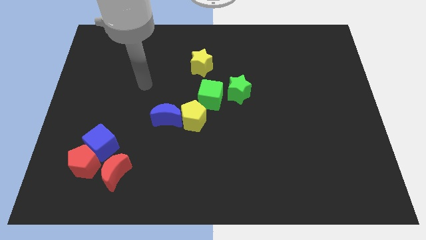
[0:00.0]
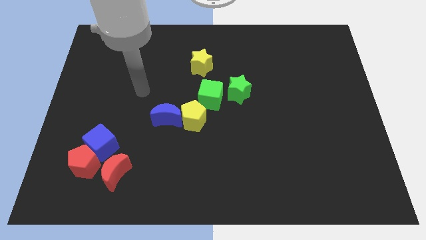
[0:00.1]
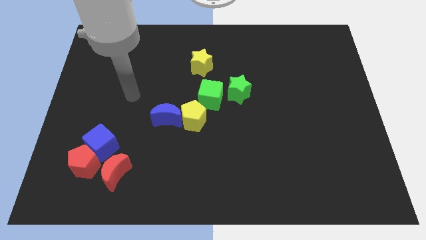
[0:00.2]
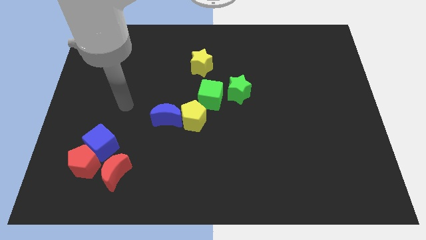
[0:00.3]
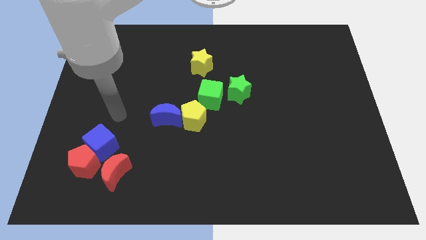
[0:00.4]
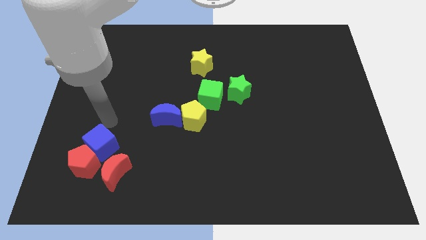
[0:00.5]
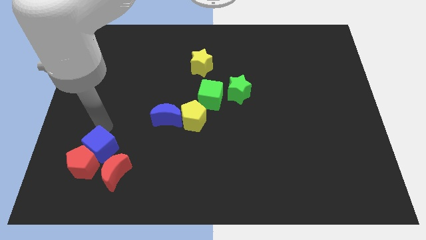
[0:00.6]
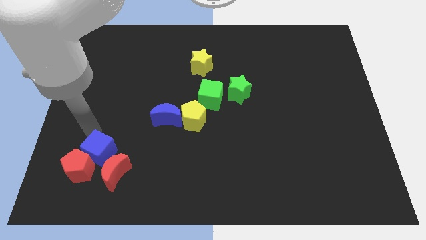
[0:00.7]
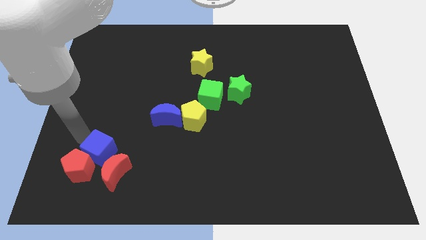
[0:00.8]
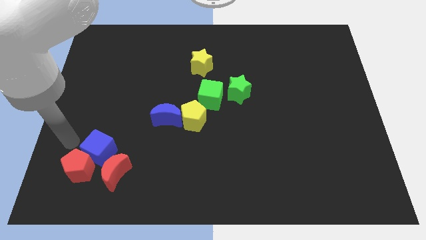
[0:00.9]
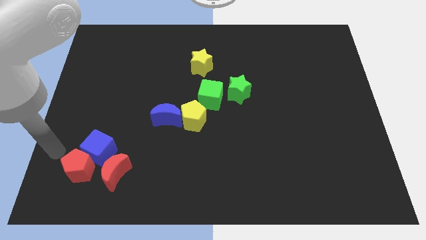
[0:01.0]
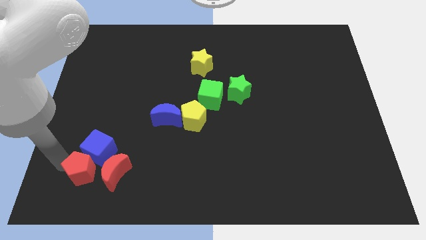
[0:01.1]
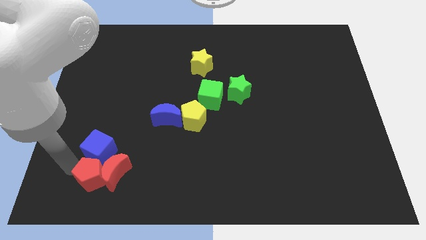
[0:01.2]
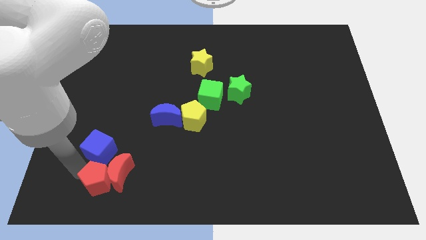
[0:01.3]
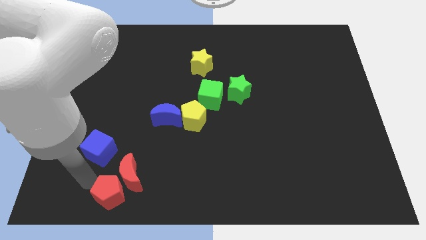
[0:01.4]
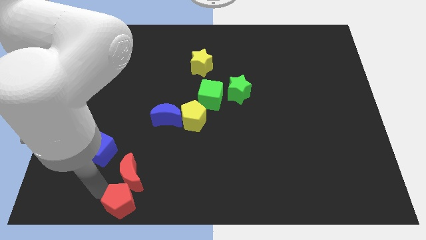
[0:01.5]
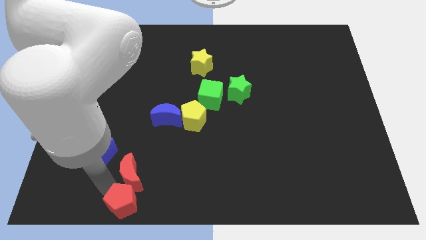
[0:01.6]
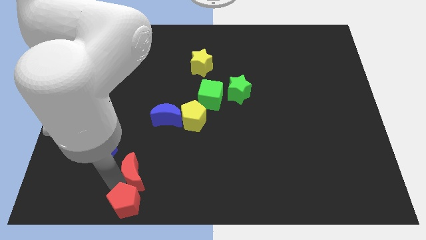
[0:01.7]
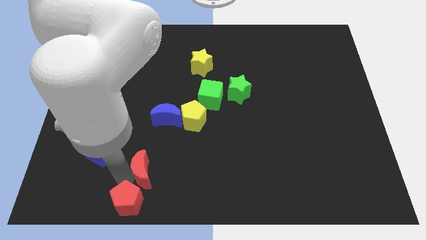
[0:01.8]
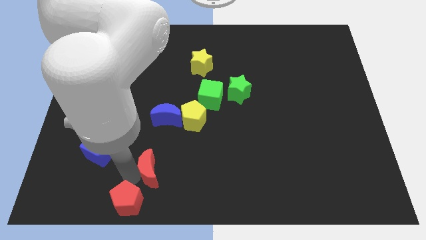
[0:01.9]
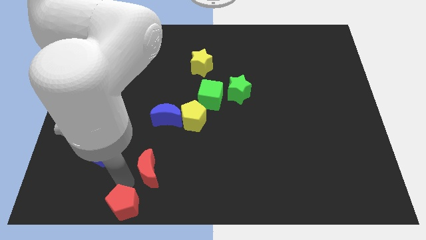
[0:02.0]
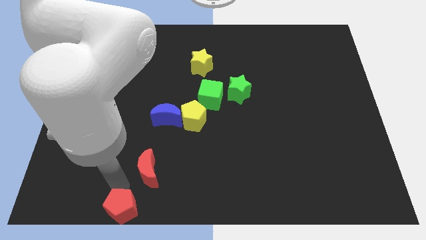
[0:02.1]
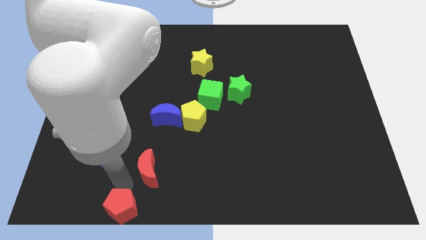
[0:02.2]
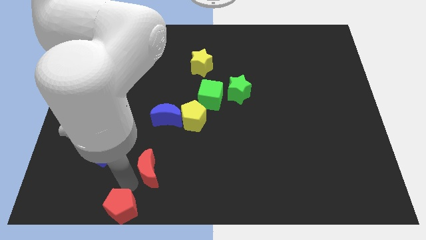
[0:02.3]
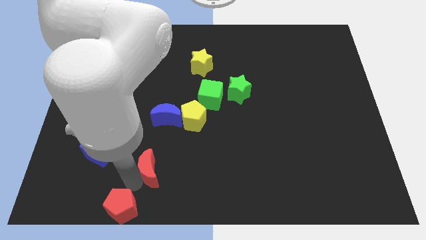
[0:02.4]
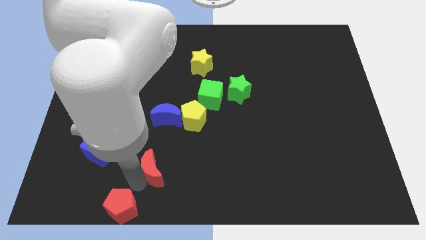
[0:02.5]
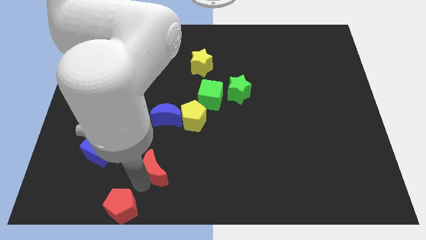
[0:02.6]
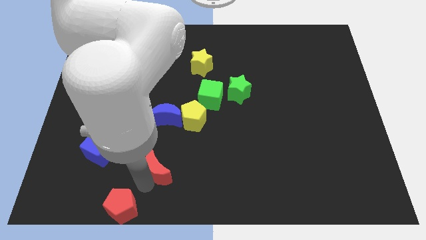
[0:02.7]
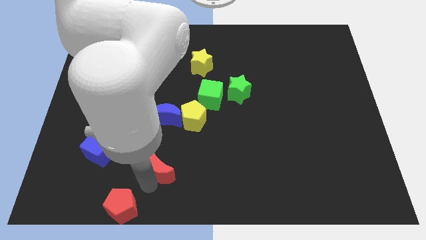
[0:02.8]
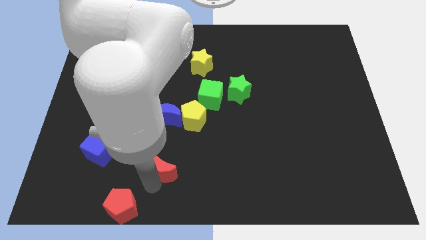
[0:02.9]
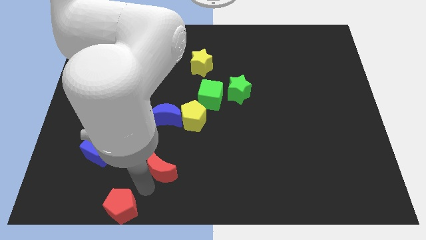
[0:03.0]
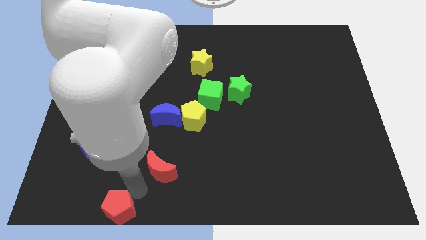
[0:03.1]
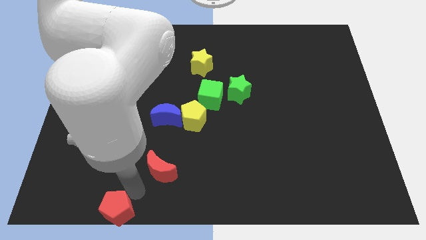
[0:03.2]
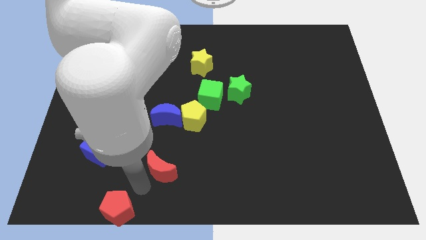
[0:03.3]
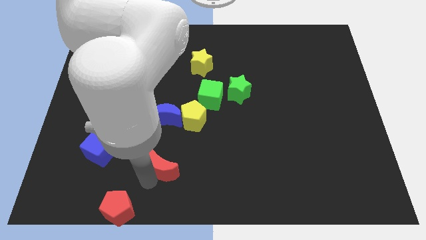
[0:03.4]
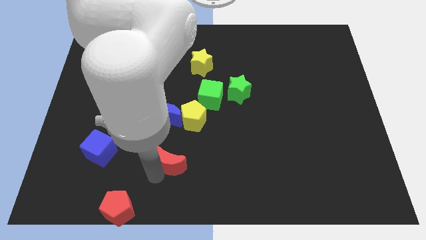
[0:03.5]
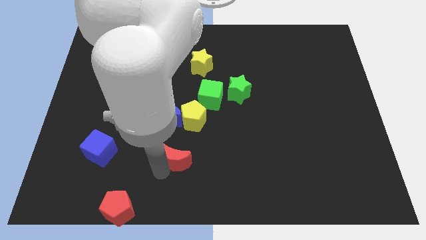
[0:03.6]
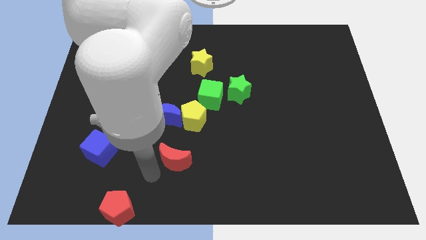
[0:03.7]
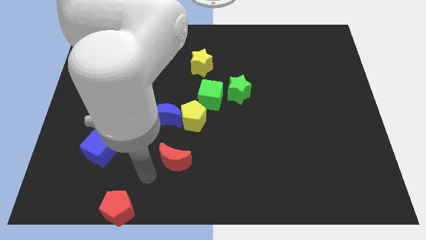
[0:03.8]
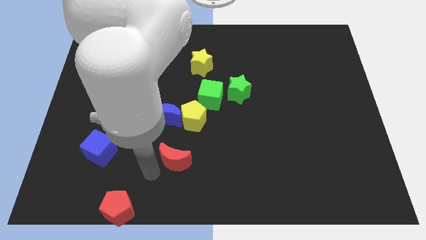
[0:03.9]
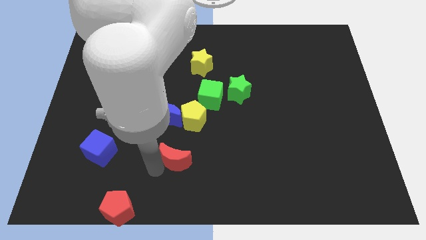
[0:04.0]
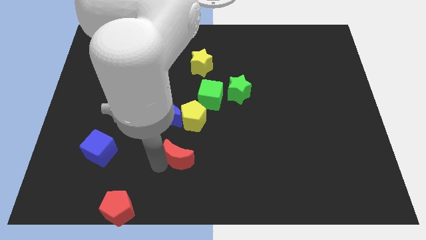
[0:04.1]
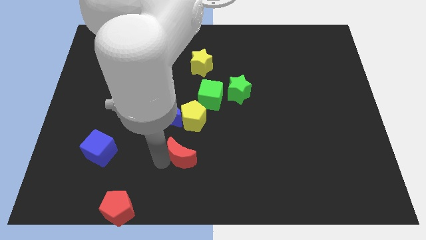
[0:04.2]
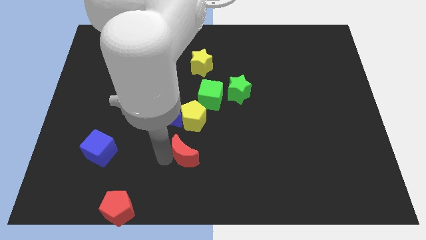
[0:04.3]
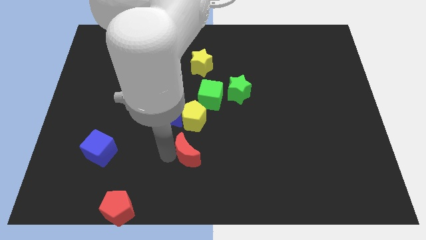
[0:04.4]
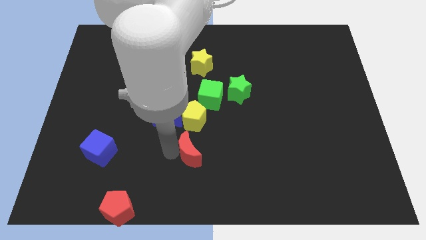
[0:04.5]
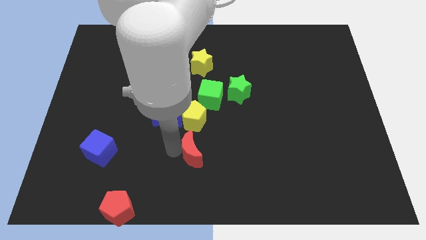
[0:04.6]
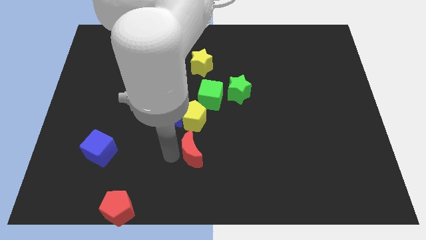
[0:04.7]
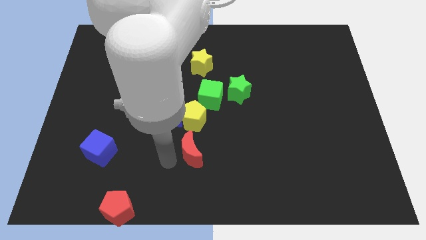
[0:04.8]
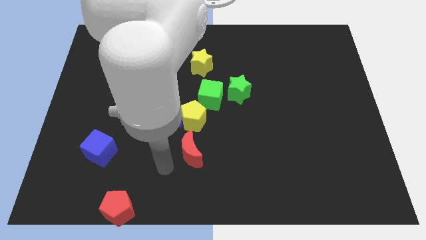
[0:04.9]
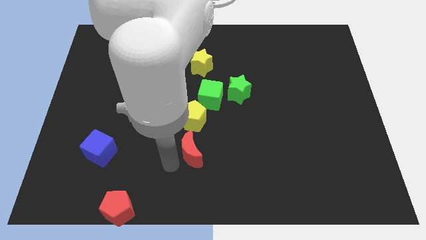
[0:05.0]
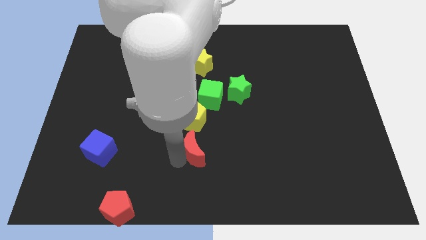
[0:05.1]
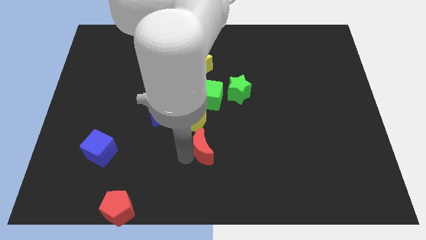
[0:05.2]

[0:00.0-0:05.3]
slide the red moon diagonally down and to the right of the yellow pentagon

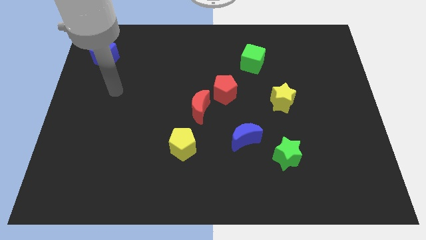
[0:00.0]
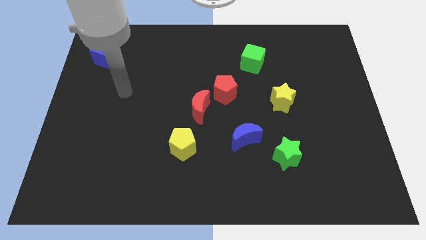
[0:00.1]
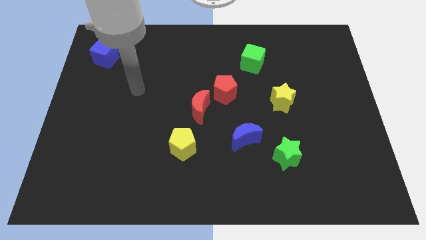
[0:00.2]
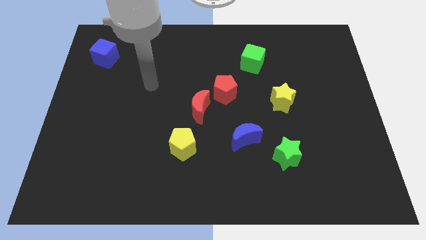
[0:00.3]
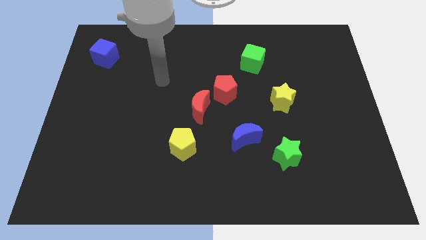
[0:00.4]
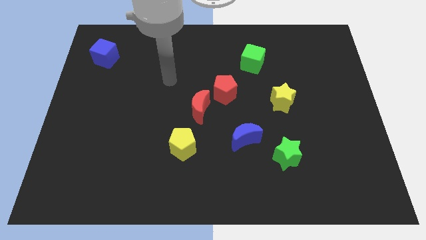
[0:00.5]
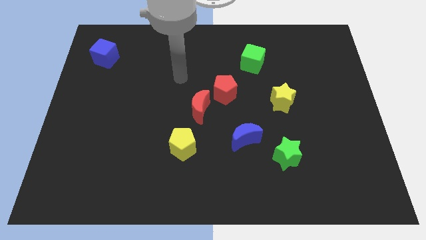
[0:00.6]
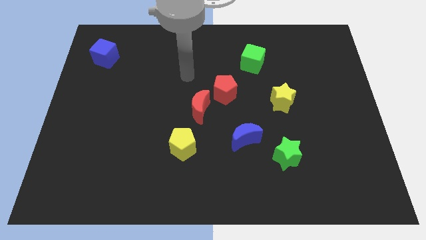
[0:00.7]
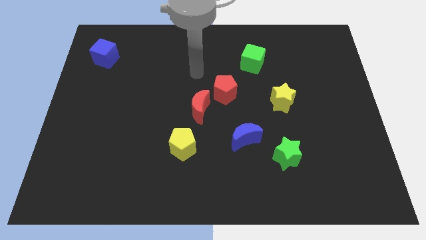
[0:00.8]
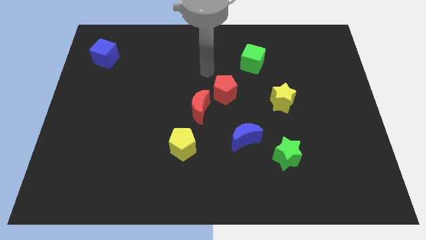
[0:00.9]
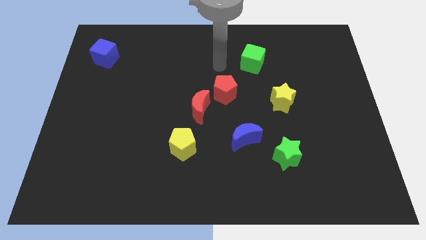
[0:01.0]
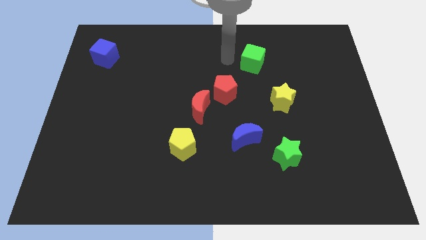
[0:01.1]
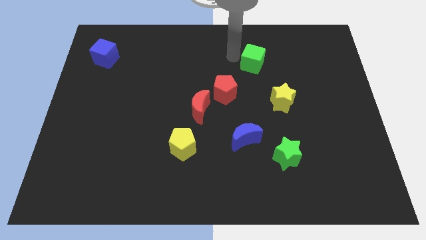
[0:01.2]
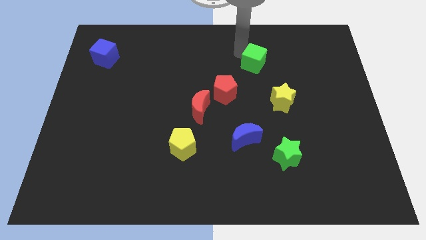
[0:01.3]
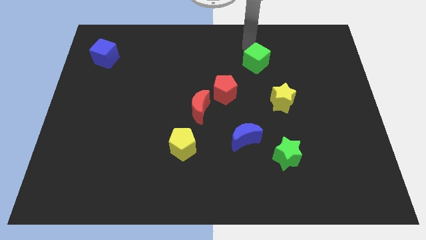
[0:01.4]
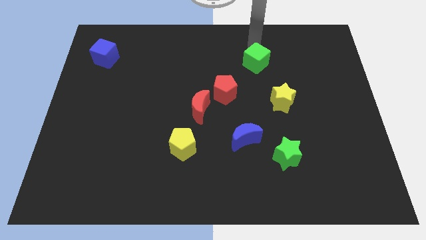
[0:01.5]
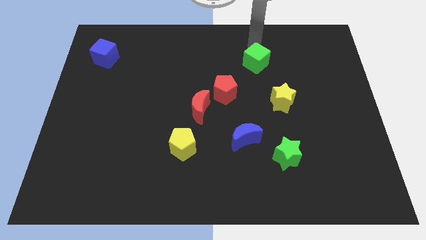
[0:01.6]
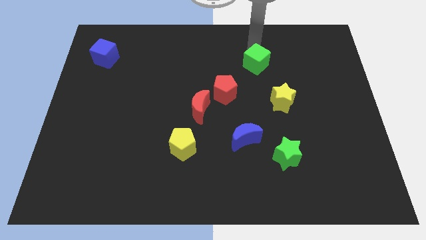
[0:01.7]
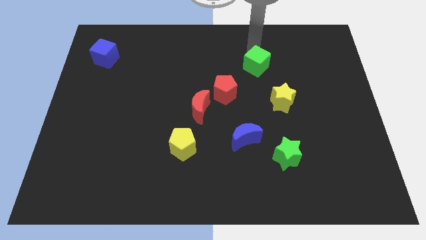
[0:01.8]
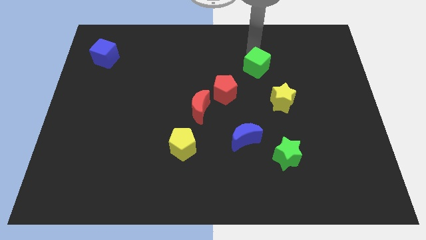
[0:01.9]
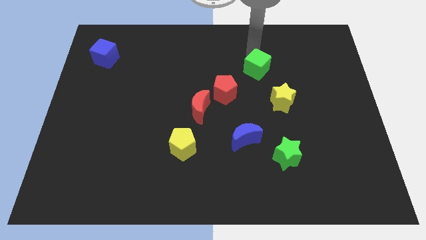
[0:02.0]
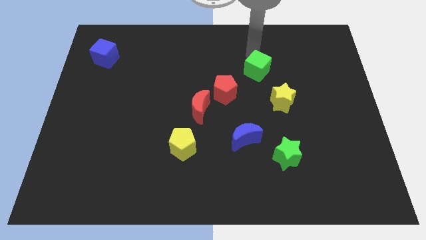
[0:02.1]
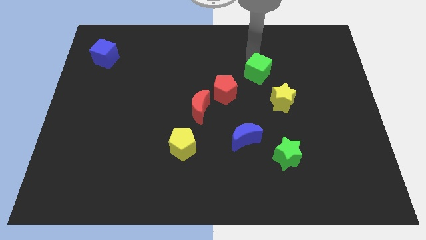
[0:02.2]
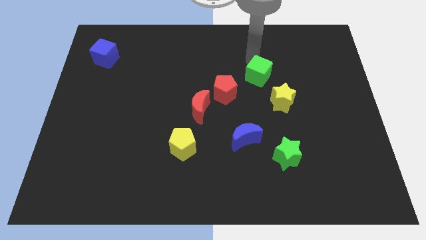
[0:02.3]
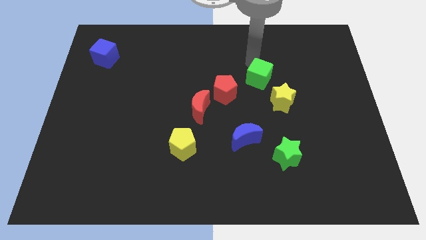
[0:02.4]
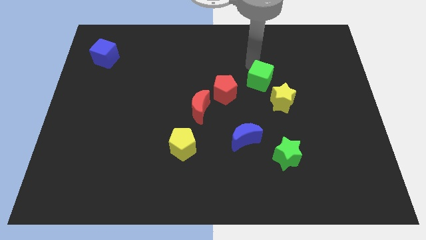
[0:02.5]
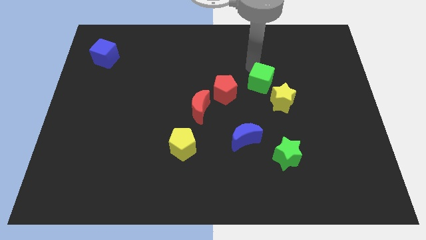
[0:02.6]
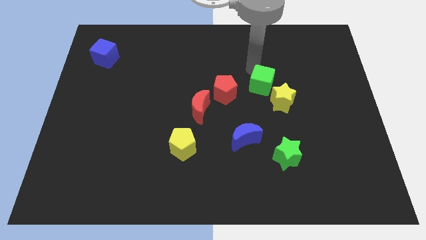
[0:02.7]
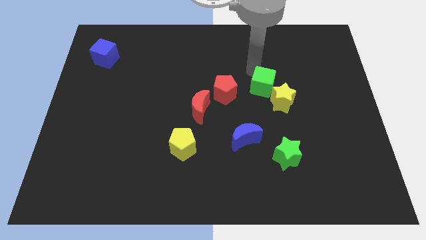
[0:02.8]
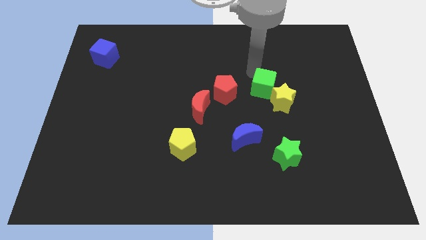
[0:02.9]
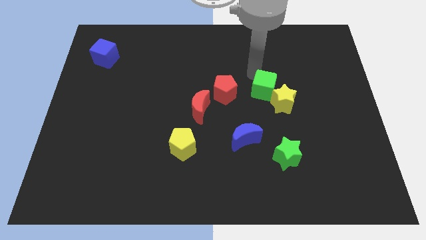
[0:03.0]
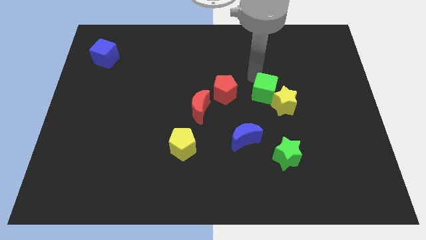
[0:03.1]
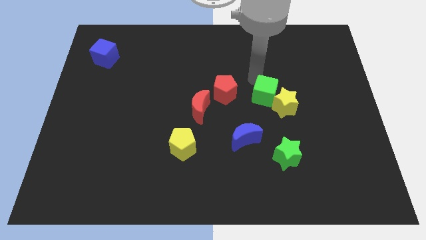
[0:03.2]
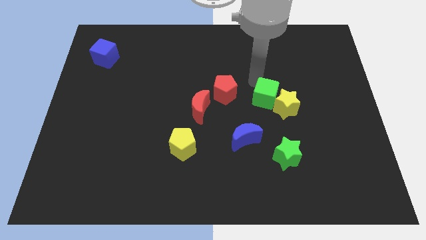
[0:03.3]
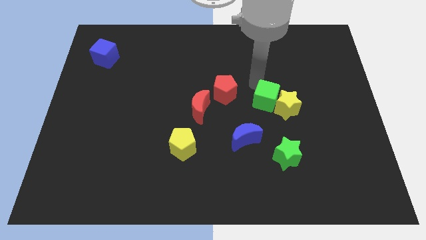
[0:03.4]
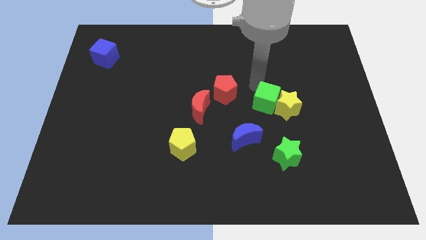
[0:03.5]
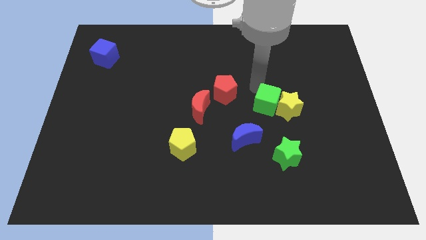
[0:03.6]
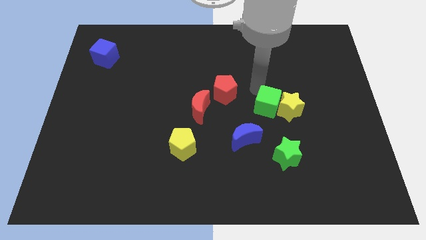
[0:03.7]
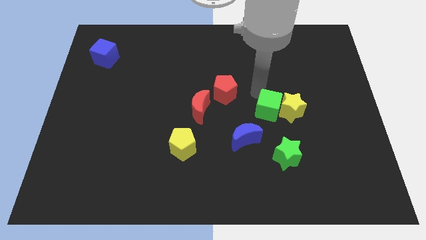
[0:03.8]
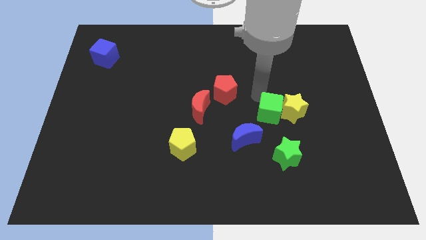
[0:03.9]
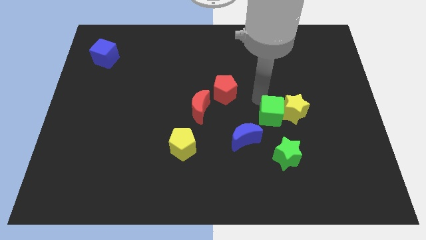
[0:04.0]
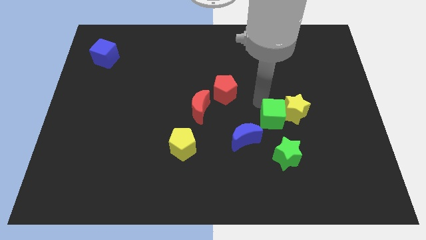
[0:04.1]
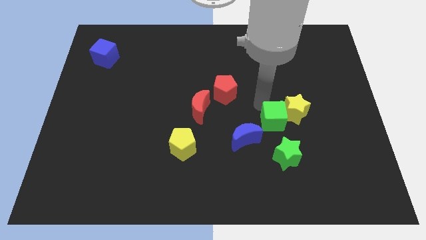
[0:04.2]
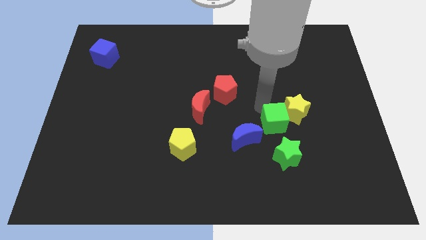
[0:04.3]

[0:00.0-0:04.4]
push the green cube to the right of the blue moon
